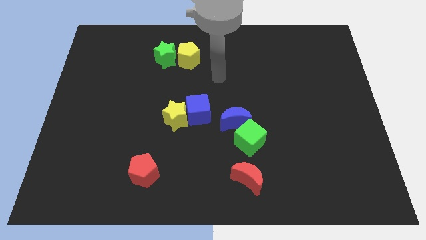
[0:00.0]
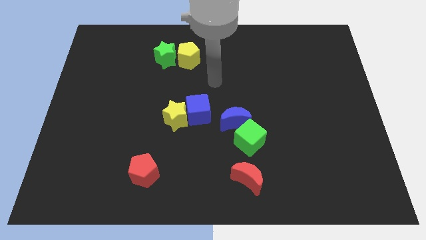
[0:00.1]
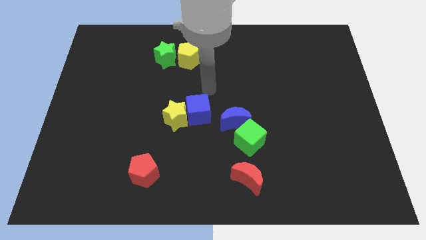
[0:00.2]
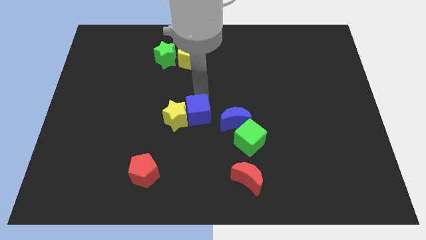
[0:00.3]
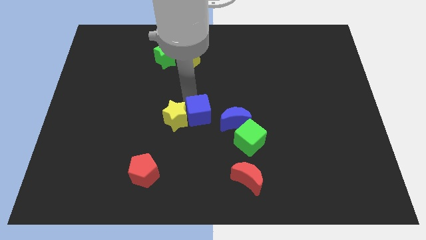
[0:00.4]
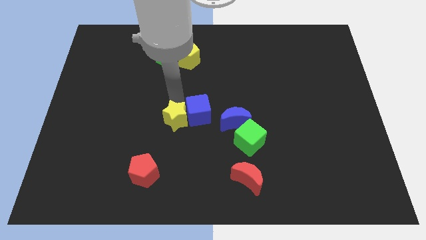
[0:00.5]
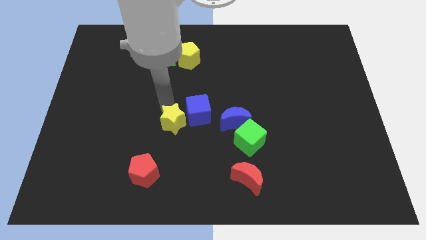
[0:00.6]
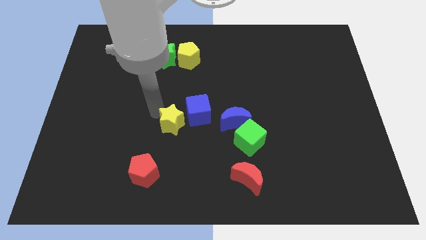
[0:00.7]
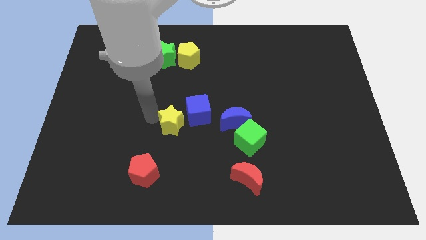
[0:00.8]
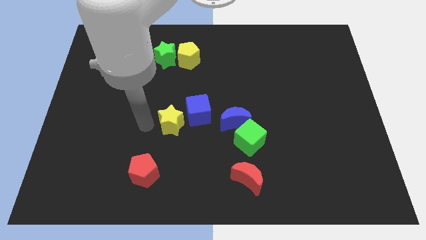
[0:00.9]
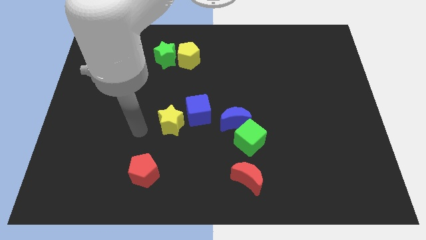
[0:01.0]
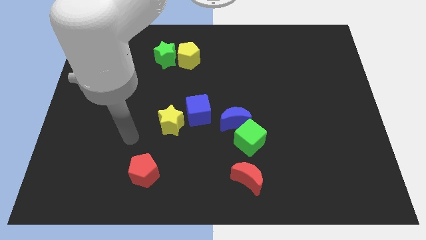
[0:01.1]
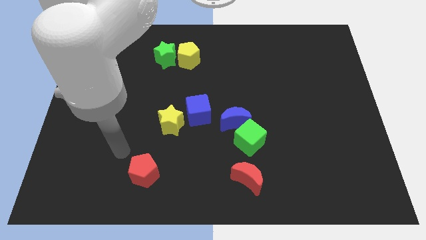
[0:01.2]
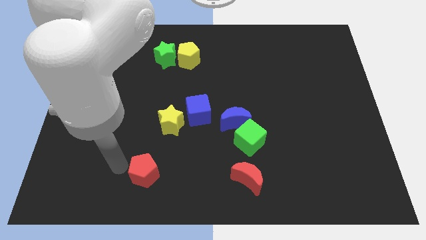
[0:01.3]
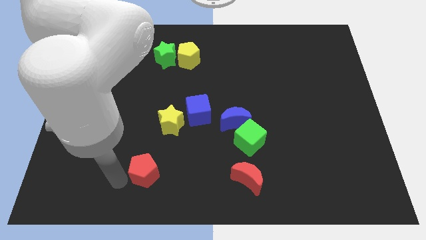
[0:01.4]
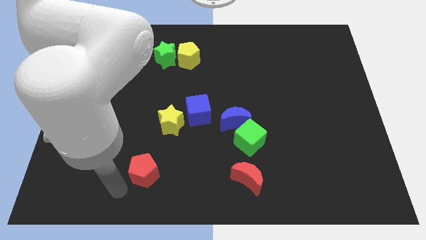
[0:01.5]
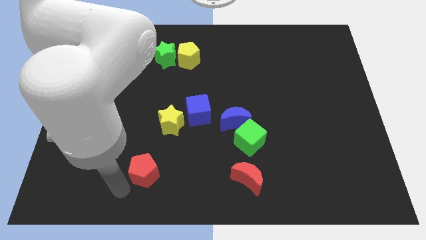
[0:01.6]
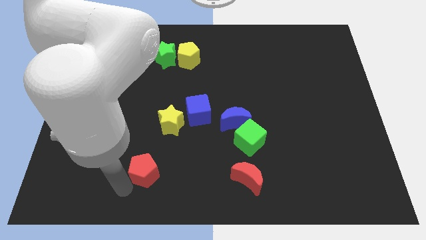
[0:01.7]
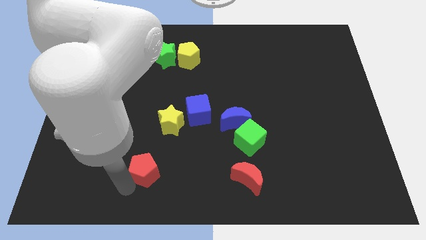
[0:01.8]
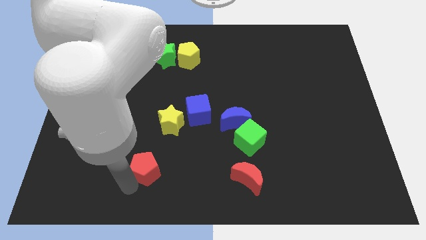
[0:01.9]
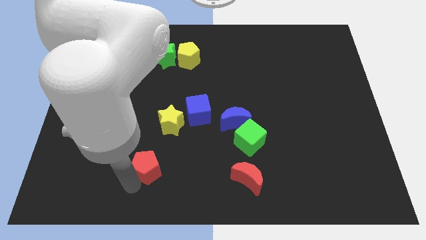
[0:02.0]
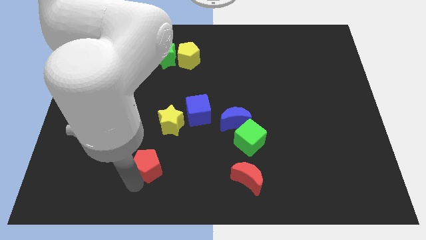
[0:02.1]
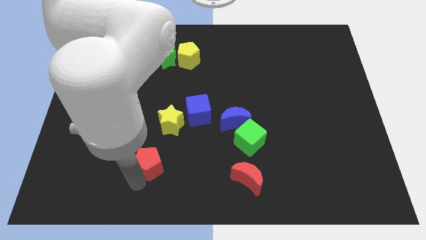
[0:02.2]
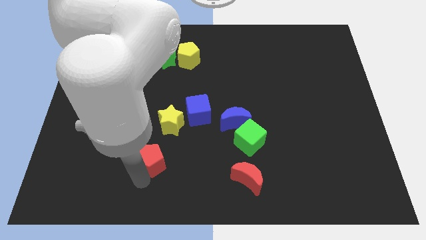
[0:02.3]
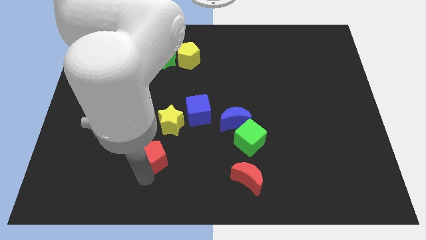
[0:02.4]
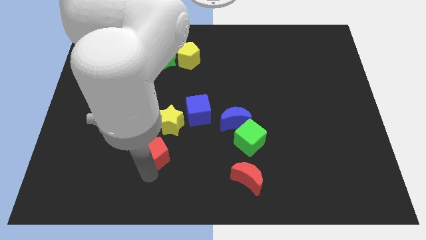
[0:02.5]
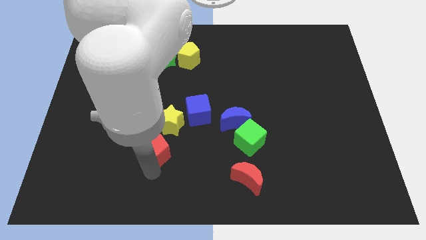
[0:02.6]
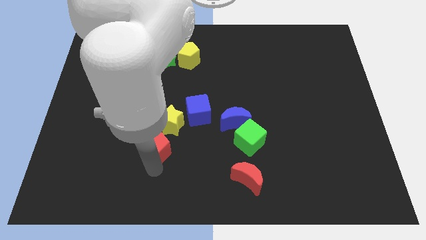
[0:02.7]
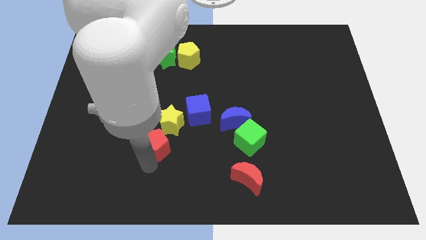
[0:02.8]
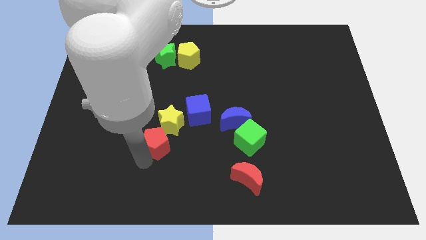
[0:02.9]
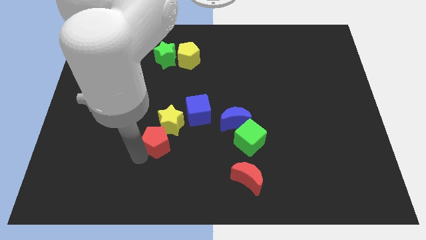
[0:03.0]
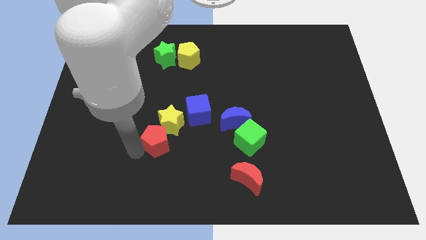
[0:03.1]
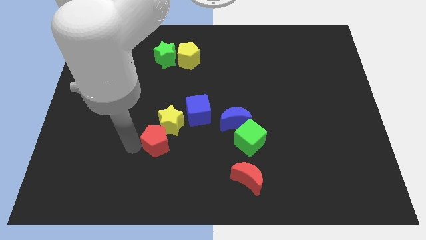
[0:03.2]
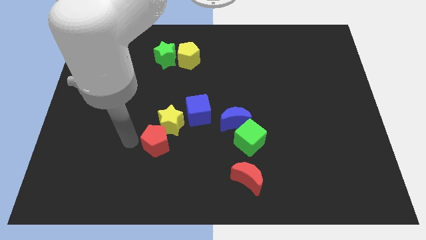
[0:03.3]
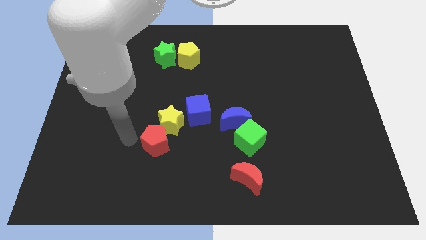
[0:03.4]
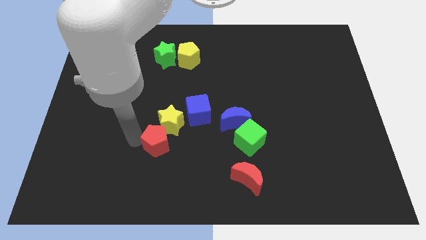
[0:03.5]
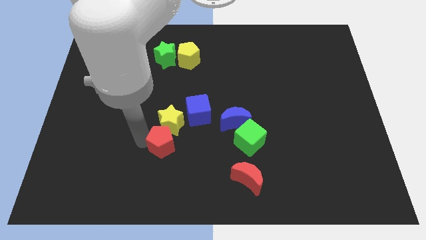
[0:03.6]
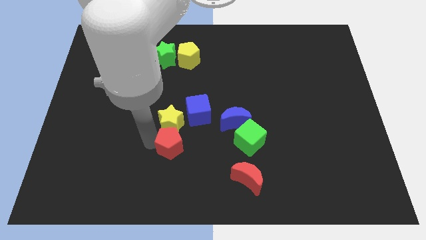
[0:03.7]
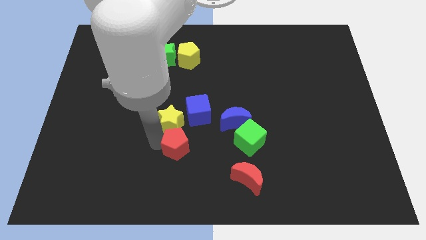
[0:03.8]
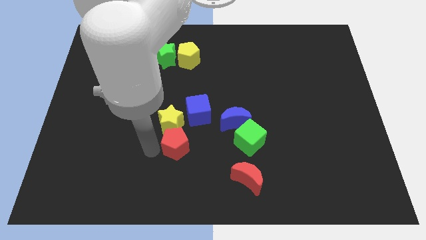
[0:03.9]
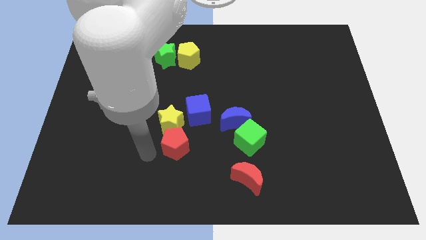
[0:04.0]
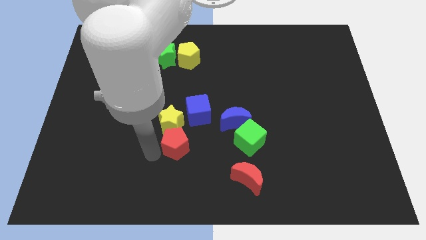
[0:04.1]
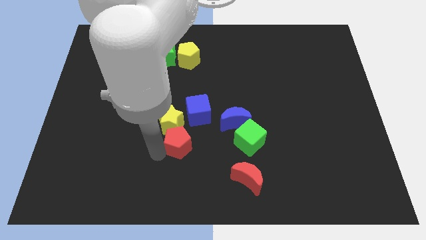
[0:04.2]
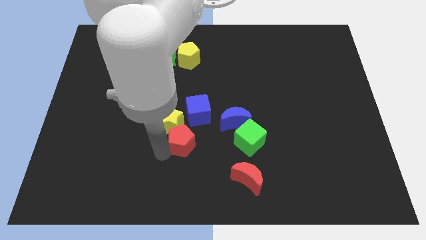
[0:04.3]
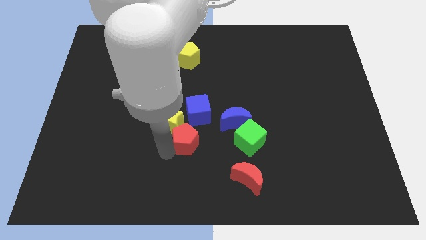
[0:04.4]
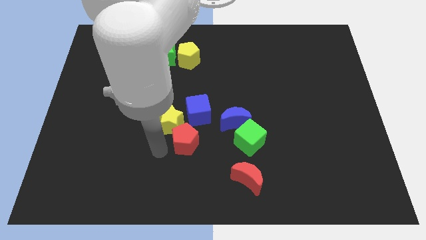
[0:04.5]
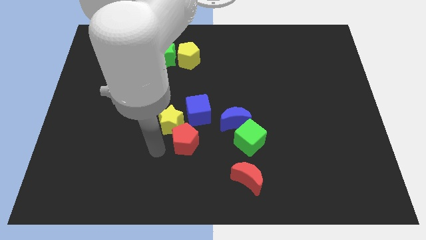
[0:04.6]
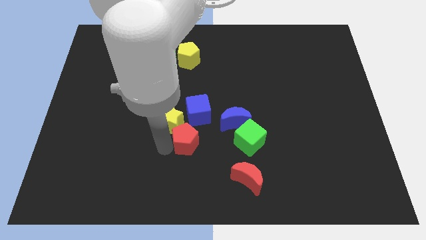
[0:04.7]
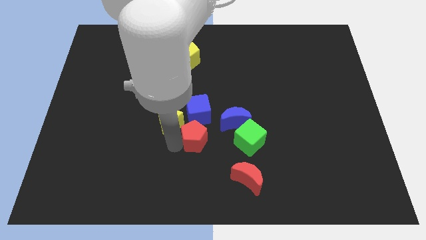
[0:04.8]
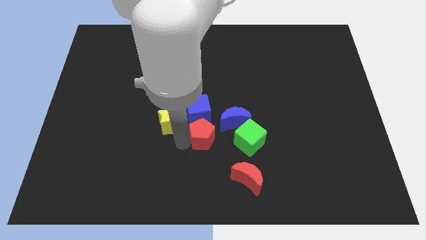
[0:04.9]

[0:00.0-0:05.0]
put the red pentagon to the bottom right of the blue cube

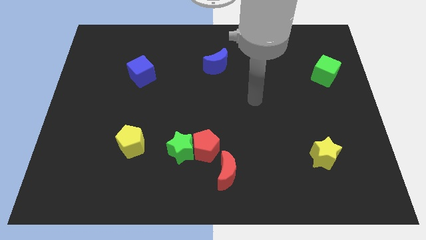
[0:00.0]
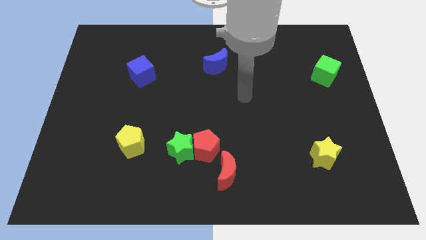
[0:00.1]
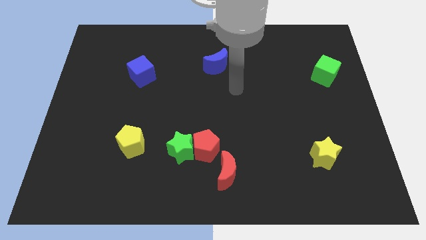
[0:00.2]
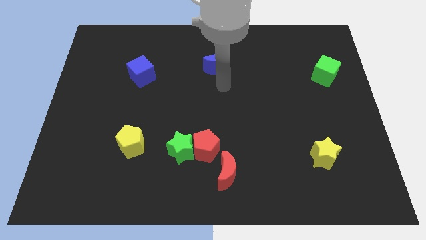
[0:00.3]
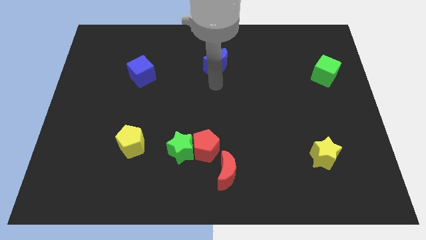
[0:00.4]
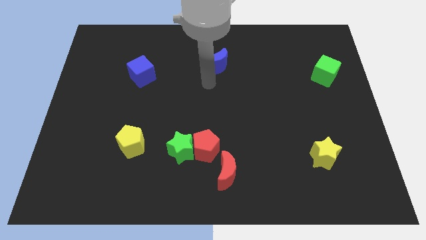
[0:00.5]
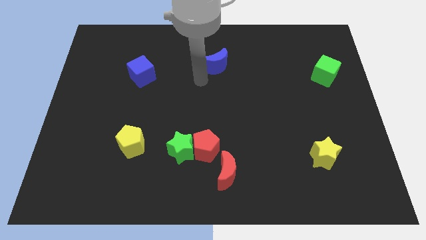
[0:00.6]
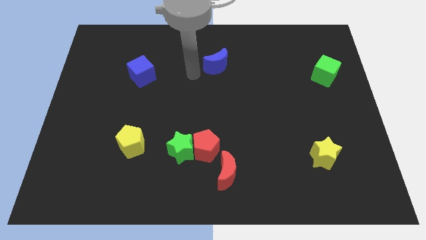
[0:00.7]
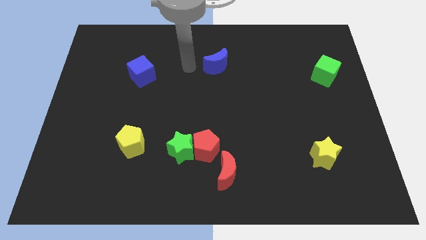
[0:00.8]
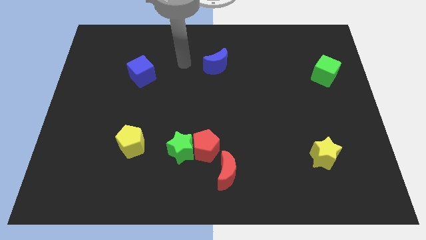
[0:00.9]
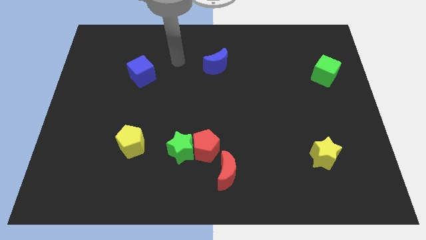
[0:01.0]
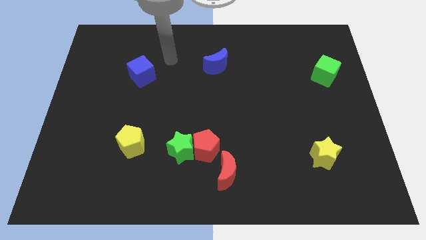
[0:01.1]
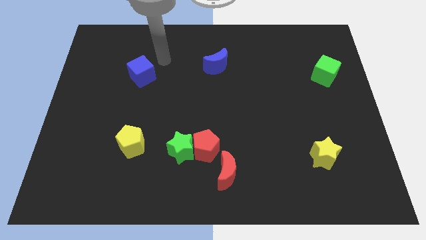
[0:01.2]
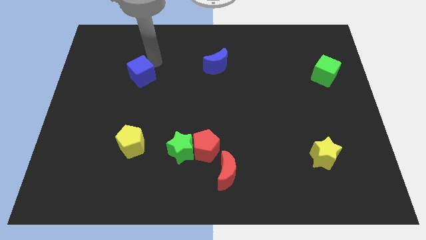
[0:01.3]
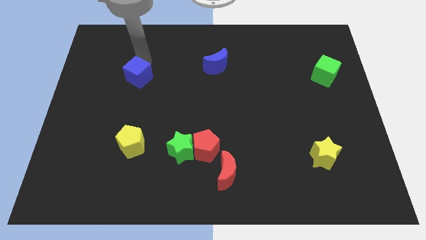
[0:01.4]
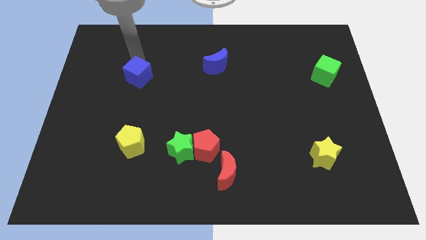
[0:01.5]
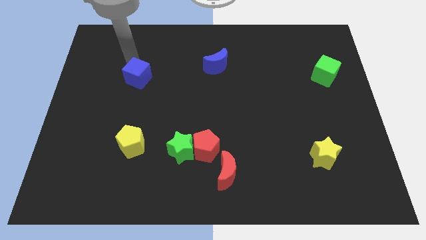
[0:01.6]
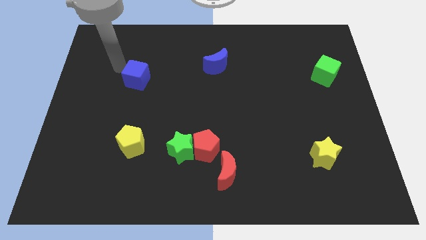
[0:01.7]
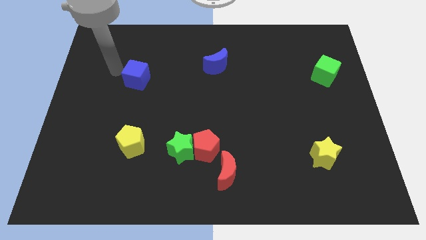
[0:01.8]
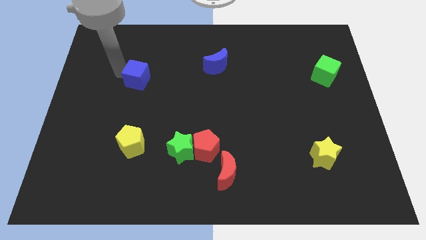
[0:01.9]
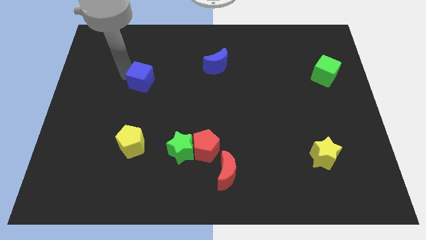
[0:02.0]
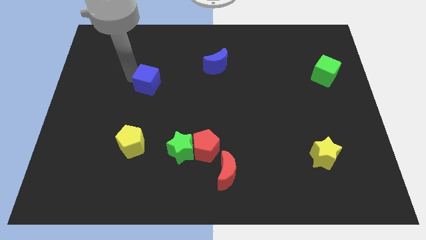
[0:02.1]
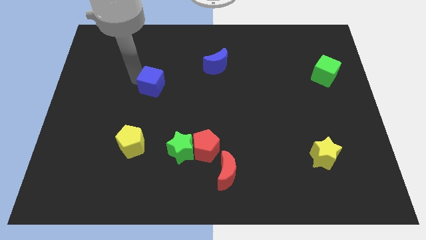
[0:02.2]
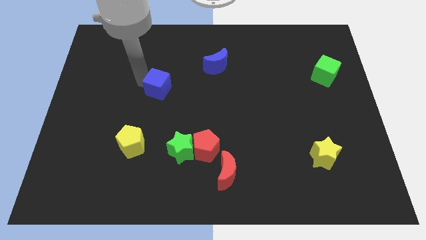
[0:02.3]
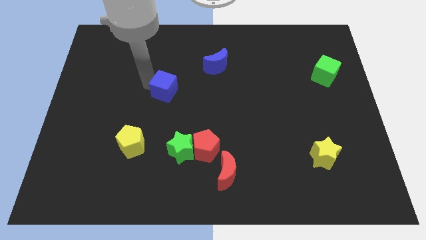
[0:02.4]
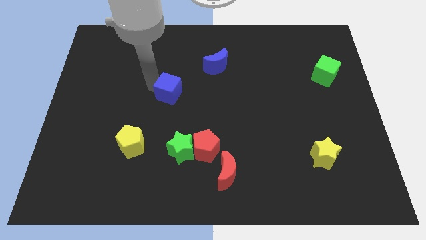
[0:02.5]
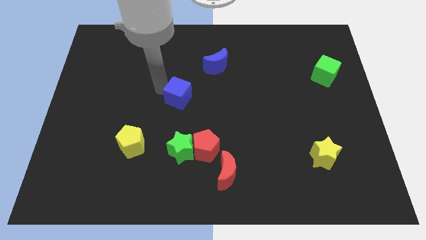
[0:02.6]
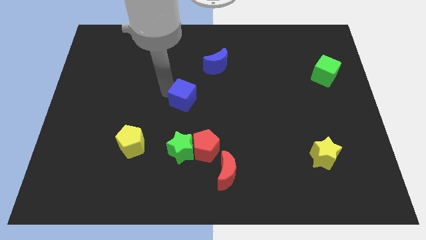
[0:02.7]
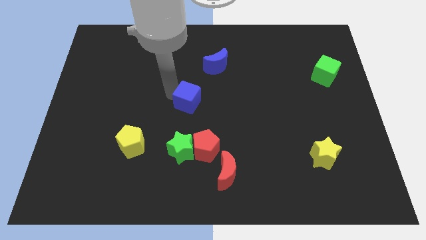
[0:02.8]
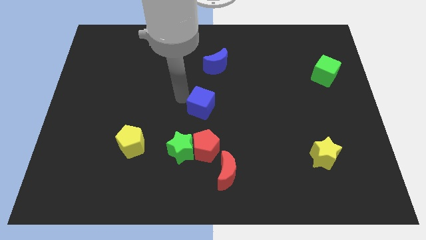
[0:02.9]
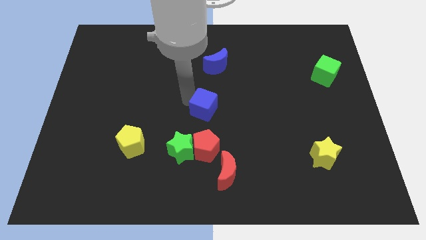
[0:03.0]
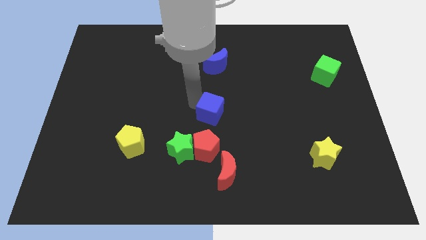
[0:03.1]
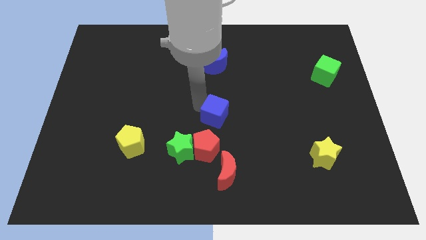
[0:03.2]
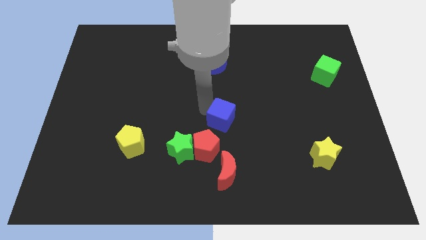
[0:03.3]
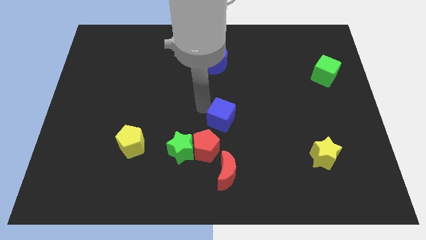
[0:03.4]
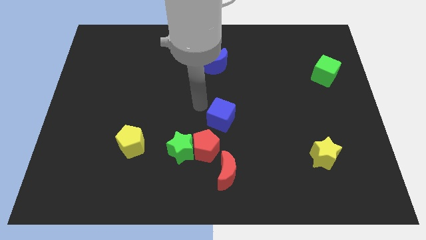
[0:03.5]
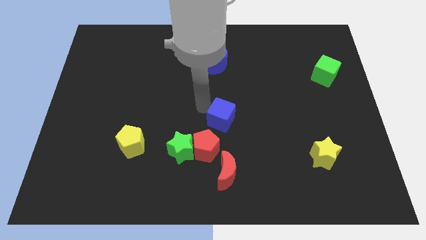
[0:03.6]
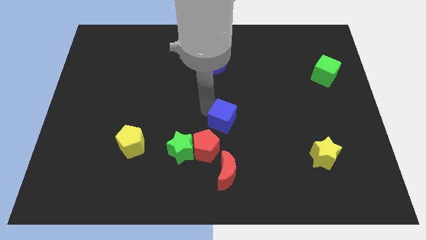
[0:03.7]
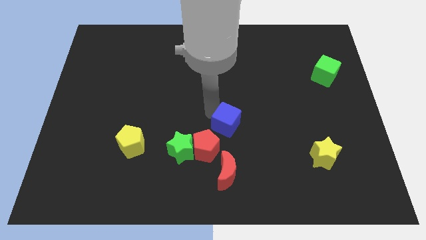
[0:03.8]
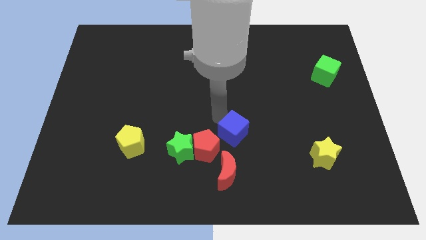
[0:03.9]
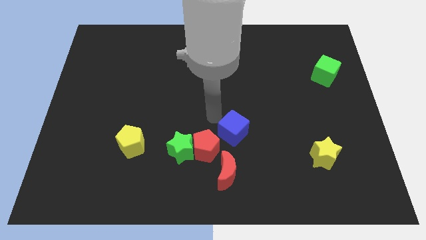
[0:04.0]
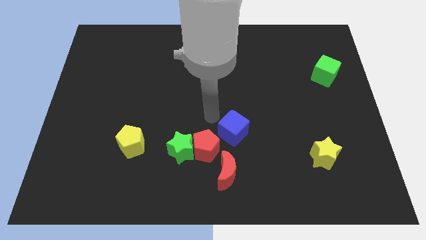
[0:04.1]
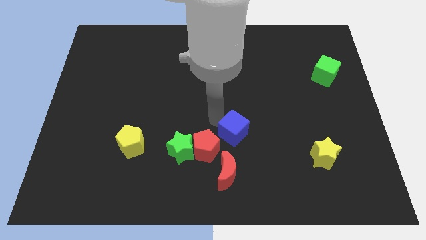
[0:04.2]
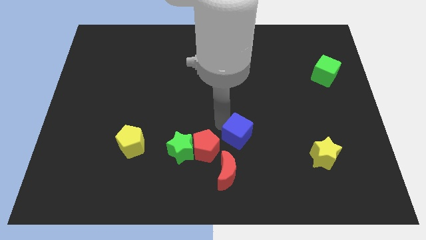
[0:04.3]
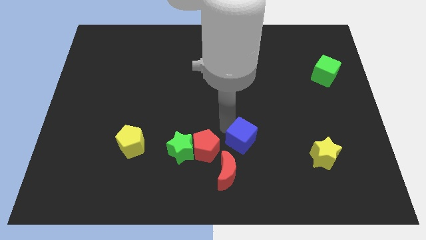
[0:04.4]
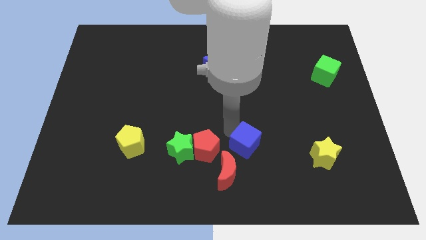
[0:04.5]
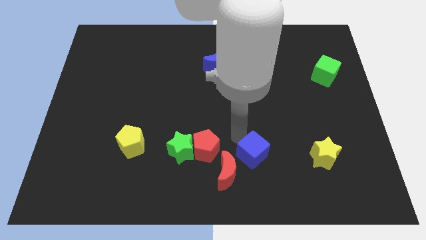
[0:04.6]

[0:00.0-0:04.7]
slide the blue cube to the right side of the red moon
